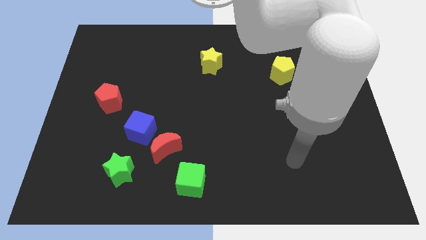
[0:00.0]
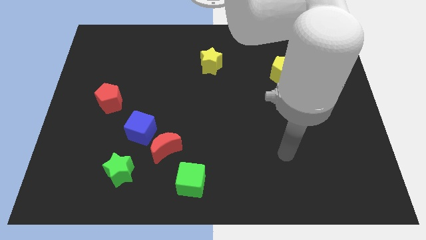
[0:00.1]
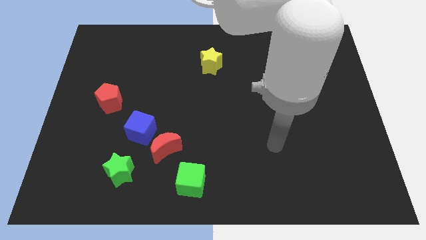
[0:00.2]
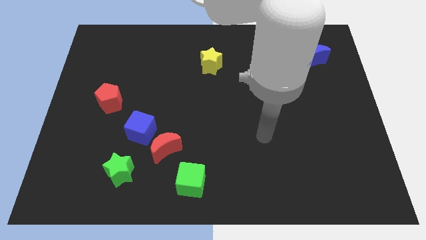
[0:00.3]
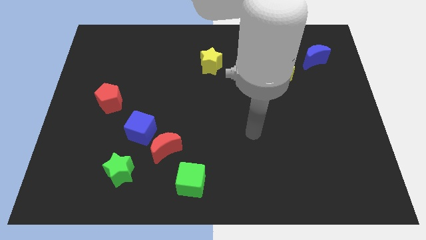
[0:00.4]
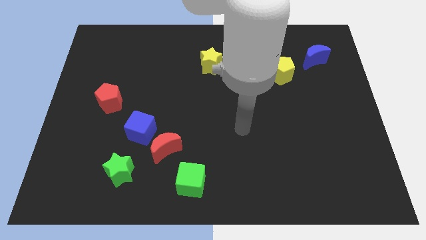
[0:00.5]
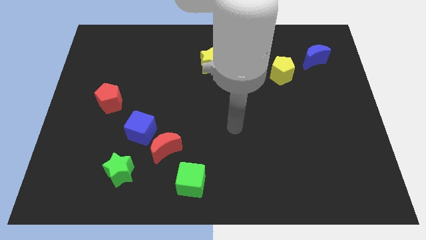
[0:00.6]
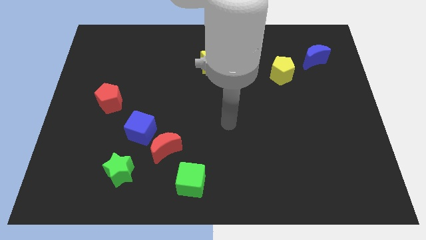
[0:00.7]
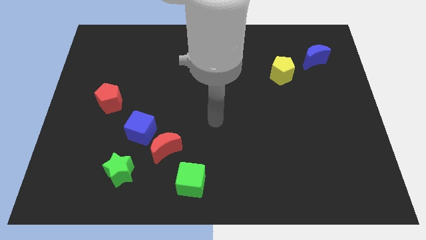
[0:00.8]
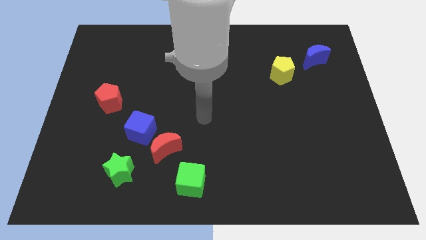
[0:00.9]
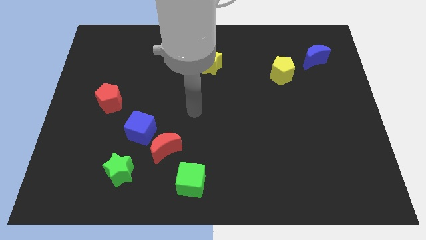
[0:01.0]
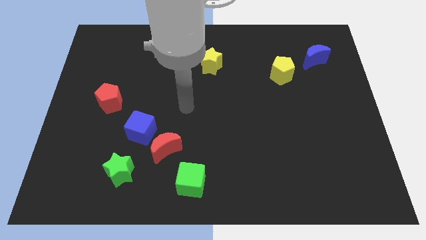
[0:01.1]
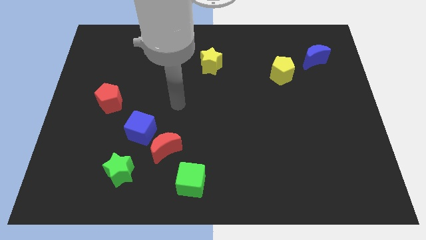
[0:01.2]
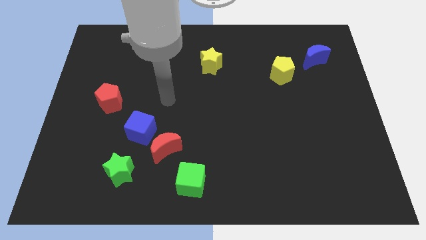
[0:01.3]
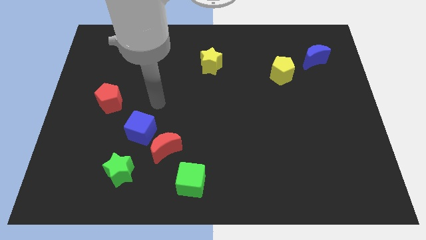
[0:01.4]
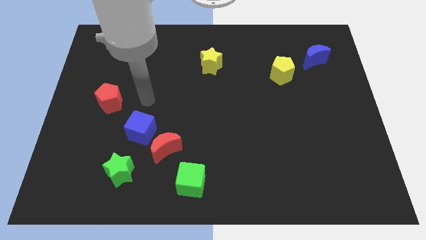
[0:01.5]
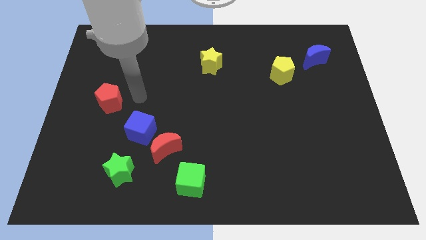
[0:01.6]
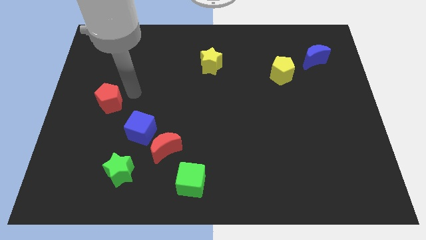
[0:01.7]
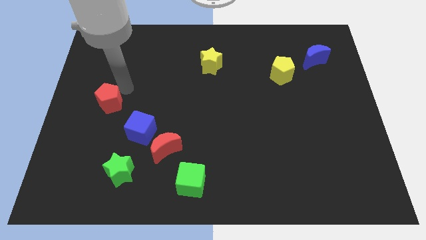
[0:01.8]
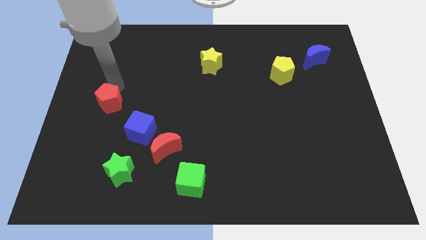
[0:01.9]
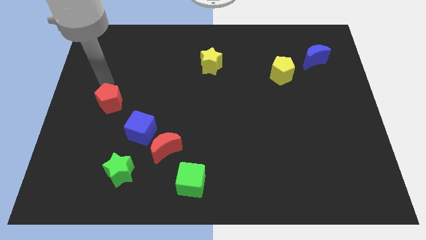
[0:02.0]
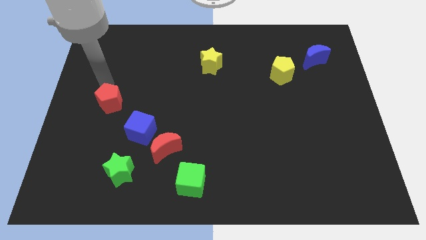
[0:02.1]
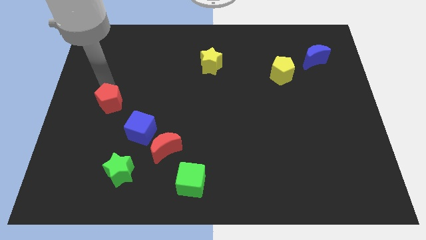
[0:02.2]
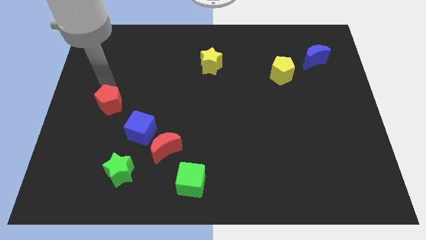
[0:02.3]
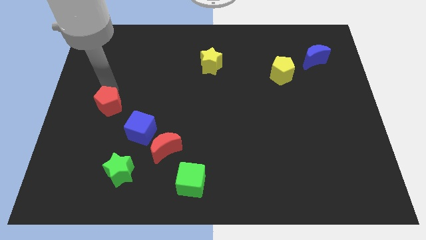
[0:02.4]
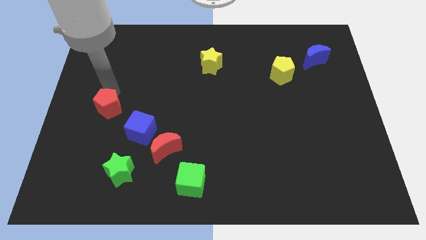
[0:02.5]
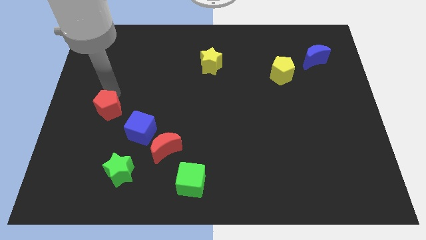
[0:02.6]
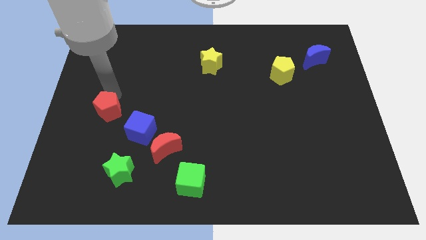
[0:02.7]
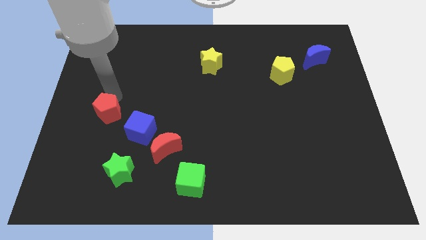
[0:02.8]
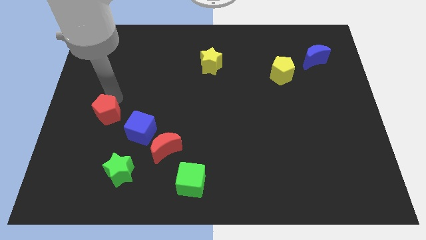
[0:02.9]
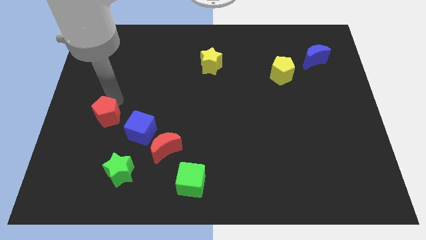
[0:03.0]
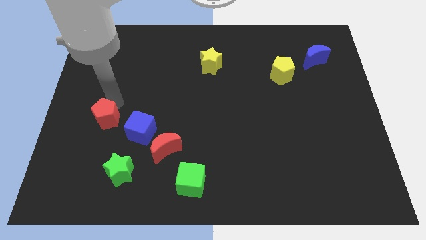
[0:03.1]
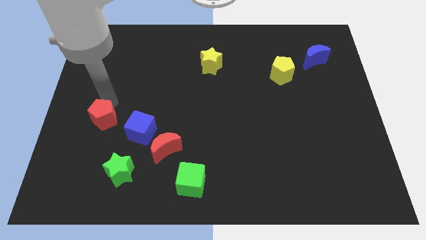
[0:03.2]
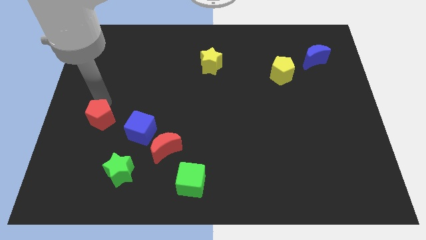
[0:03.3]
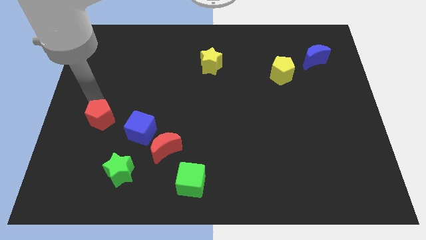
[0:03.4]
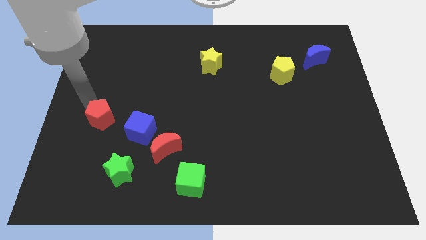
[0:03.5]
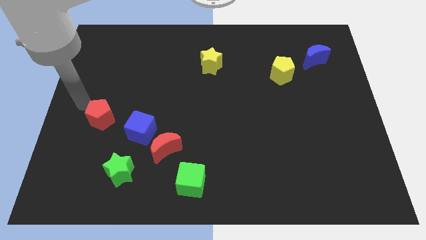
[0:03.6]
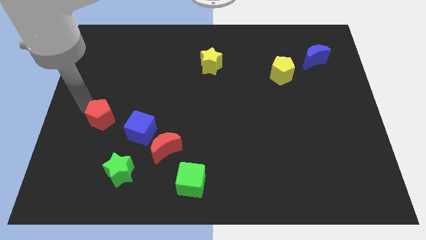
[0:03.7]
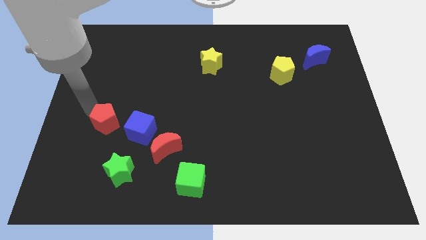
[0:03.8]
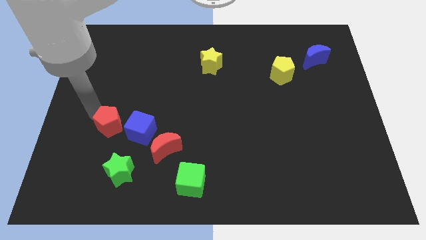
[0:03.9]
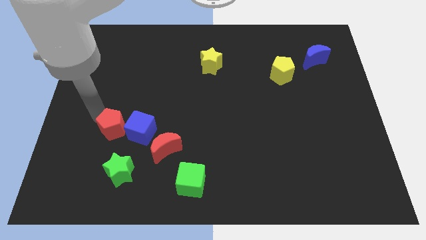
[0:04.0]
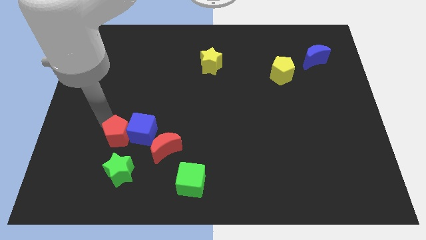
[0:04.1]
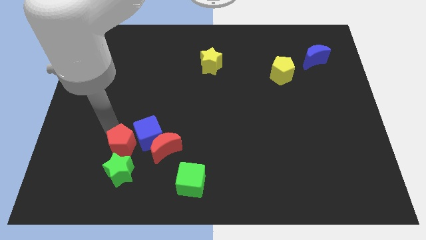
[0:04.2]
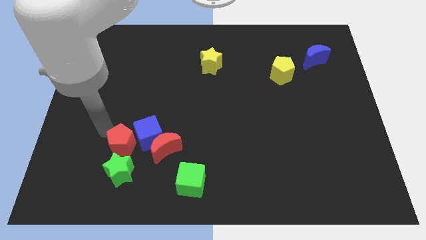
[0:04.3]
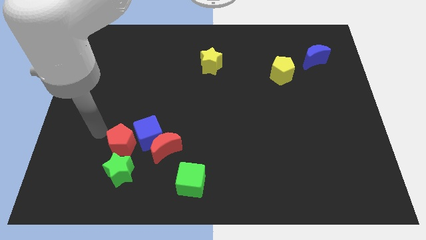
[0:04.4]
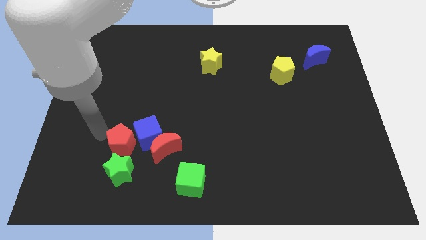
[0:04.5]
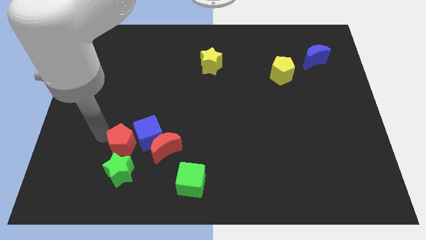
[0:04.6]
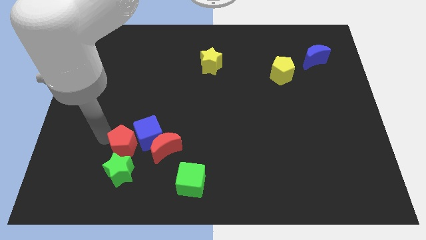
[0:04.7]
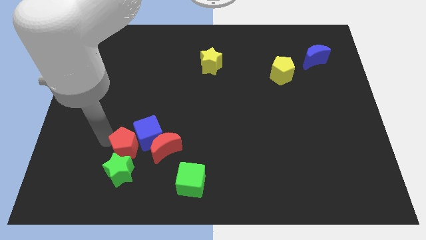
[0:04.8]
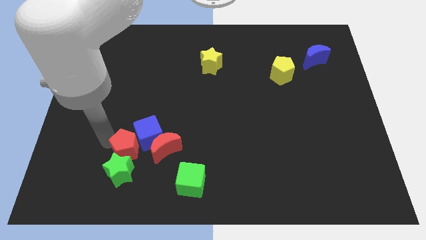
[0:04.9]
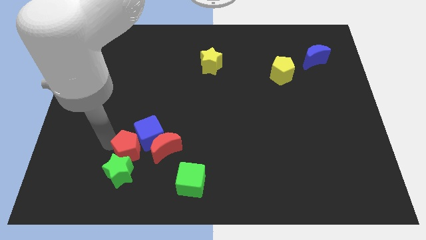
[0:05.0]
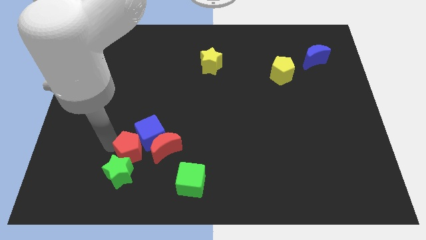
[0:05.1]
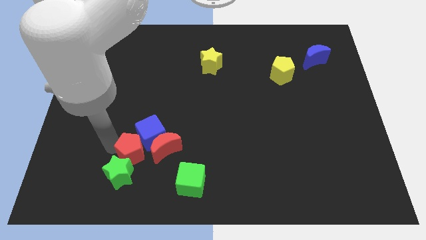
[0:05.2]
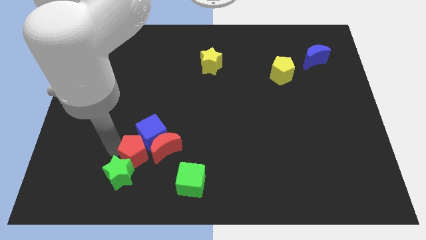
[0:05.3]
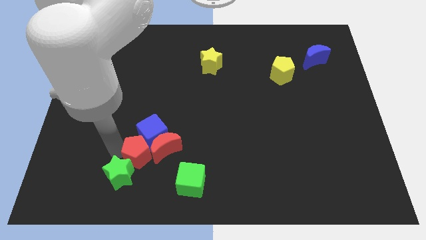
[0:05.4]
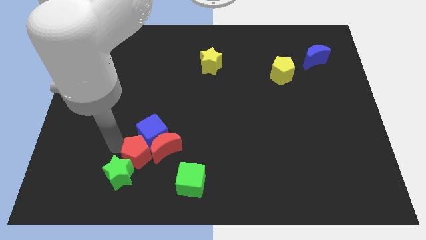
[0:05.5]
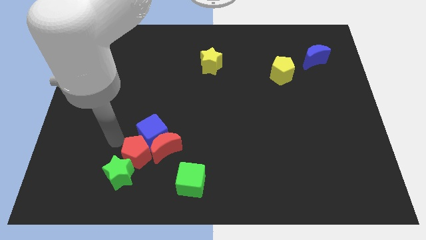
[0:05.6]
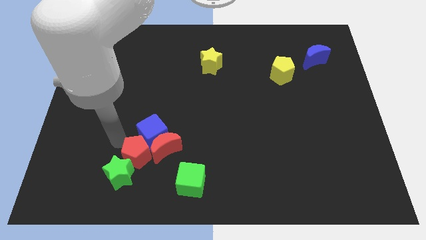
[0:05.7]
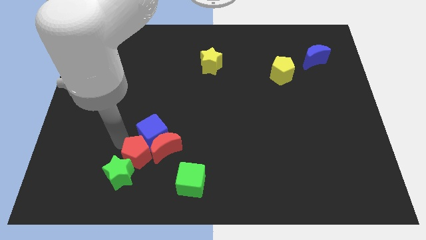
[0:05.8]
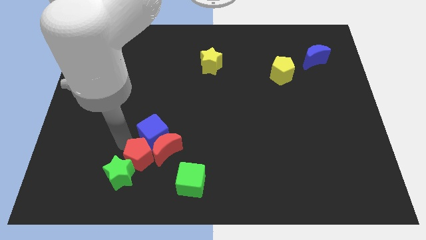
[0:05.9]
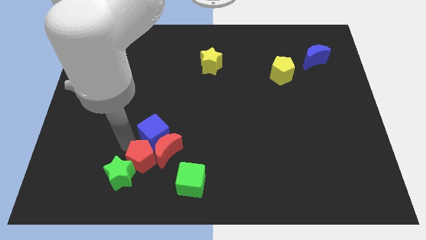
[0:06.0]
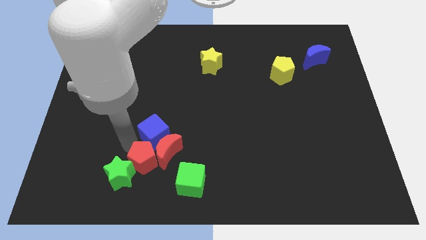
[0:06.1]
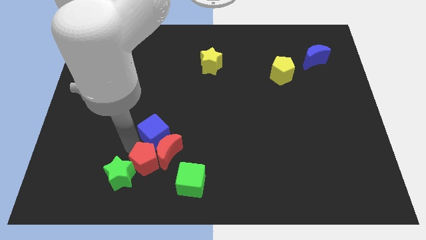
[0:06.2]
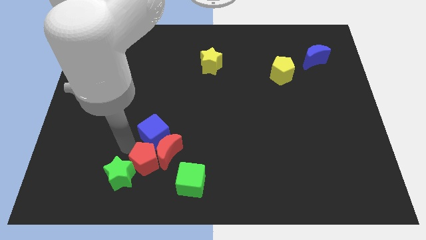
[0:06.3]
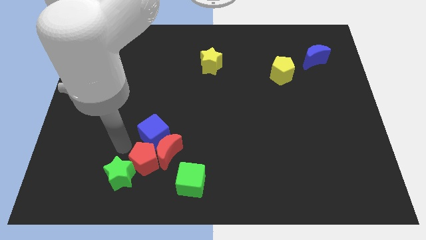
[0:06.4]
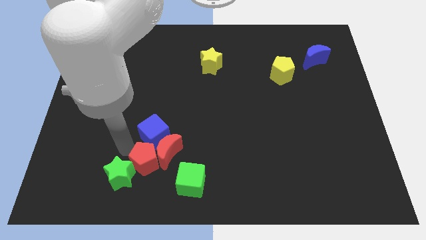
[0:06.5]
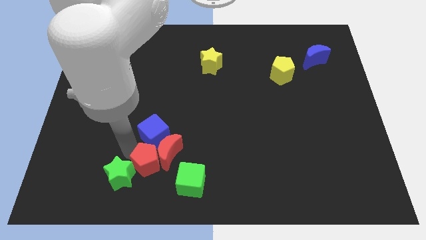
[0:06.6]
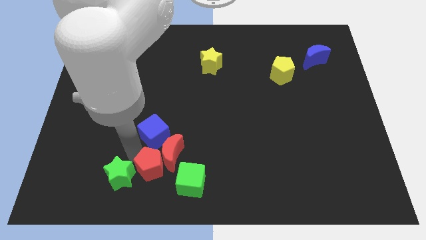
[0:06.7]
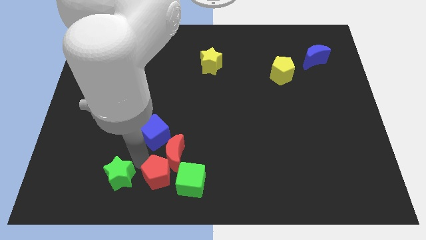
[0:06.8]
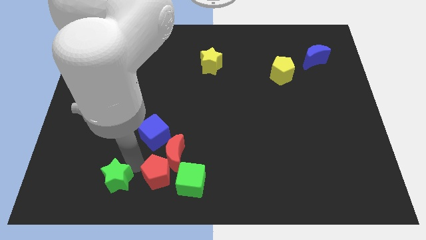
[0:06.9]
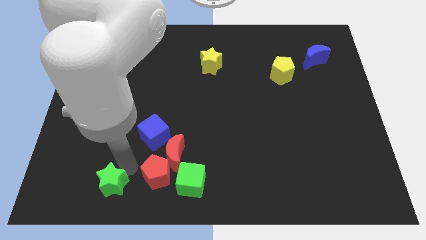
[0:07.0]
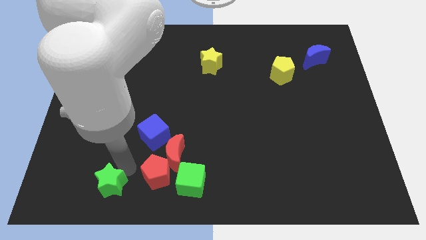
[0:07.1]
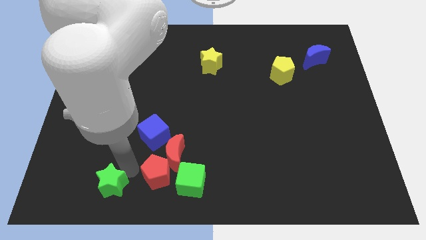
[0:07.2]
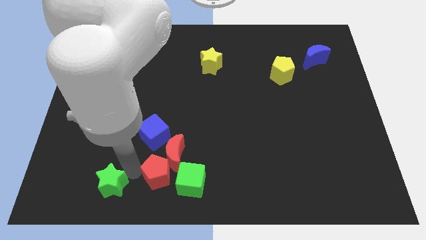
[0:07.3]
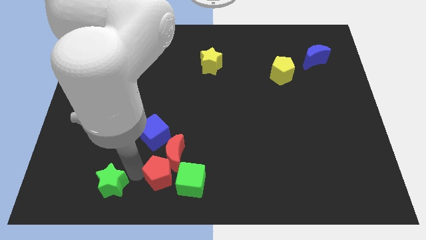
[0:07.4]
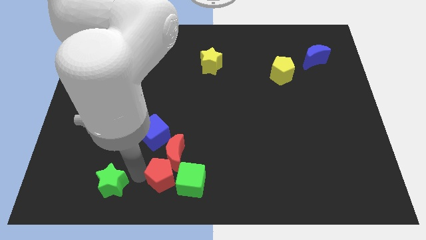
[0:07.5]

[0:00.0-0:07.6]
put the red pentagon towards the green cube
